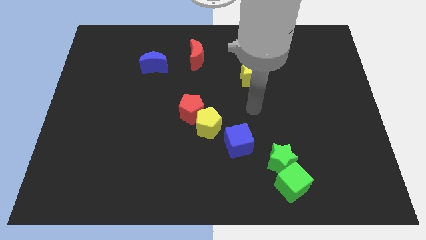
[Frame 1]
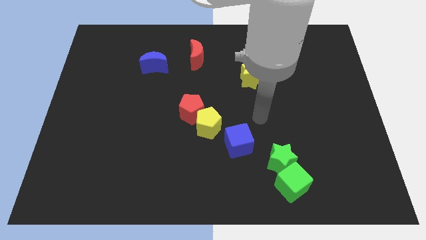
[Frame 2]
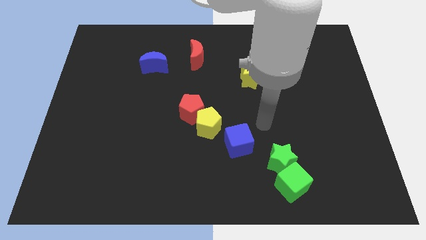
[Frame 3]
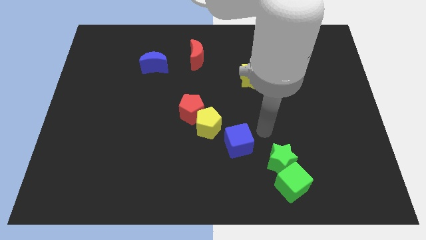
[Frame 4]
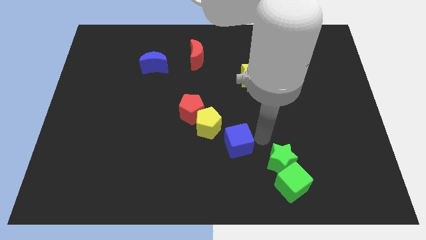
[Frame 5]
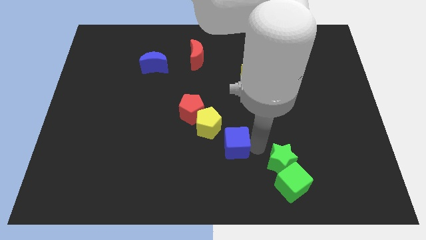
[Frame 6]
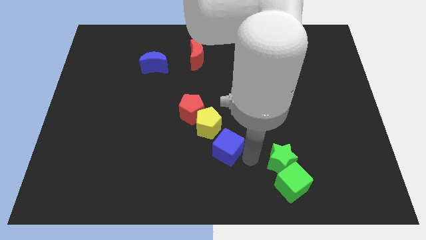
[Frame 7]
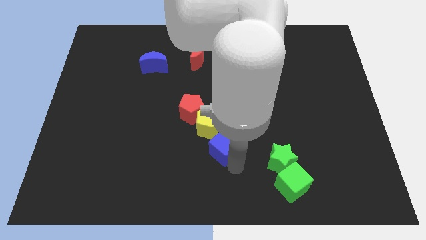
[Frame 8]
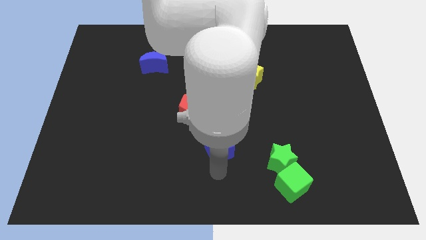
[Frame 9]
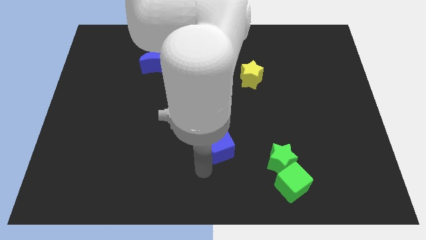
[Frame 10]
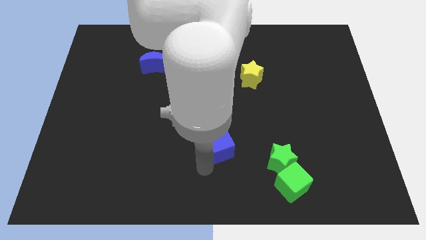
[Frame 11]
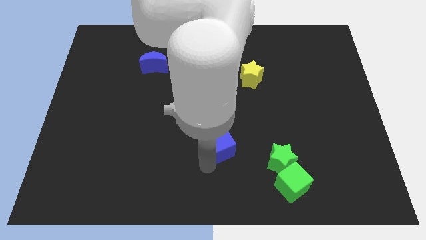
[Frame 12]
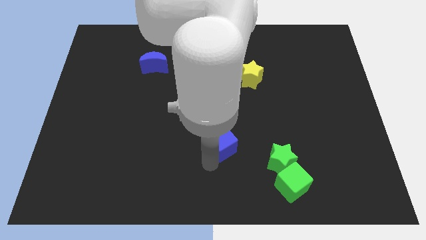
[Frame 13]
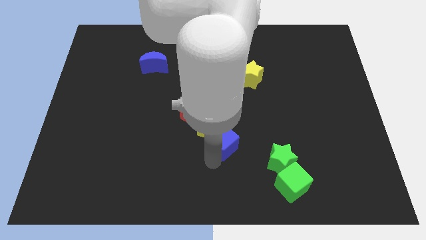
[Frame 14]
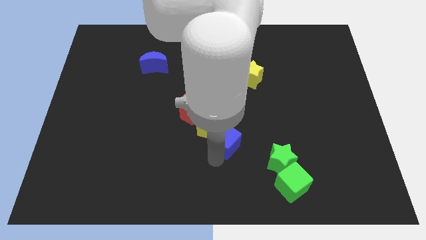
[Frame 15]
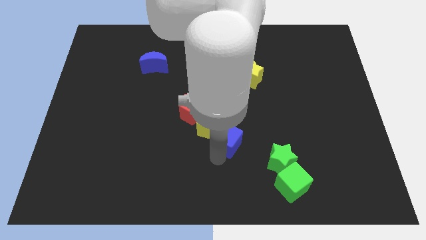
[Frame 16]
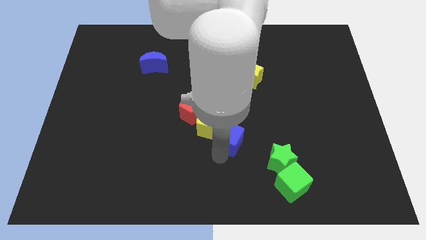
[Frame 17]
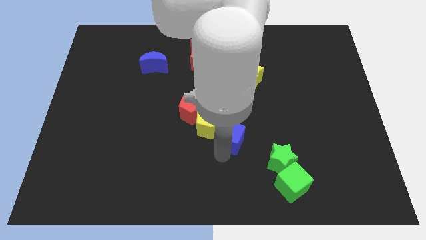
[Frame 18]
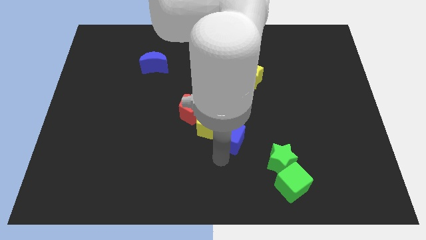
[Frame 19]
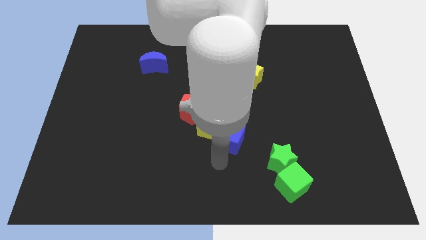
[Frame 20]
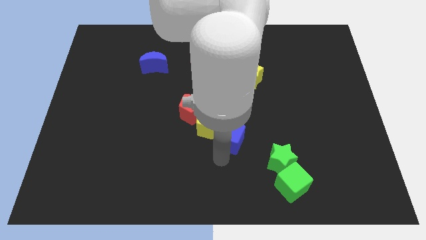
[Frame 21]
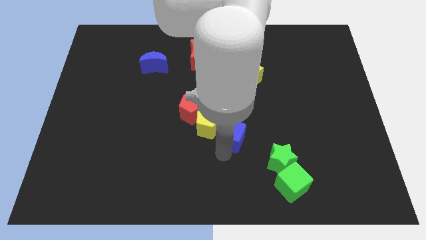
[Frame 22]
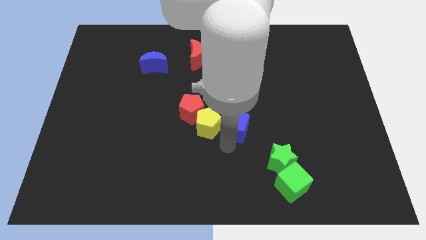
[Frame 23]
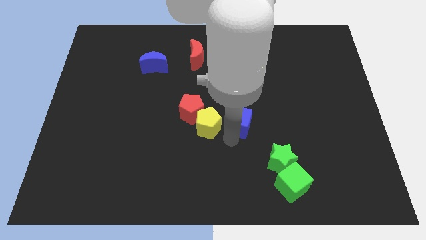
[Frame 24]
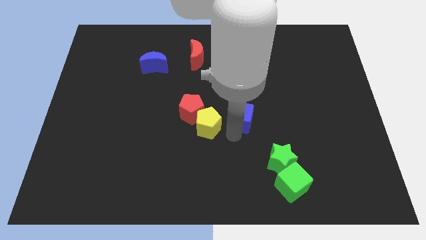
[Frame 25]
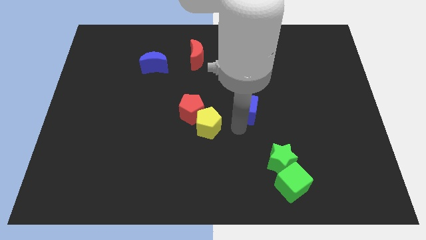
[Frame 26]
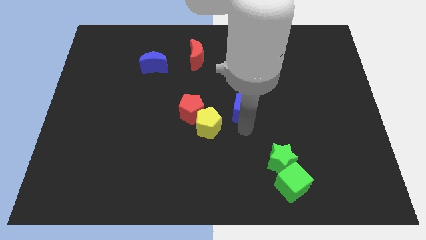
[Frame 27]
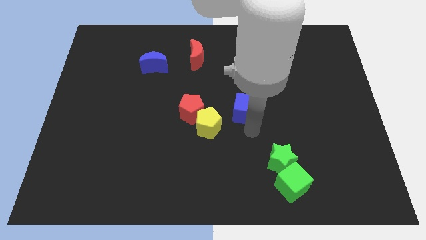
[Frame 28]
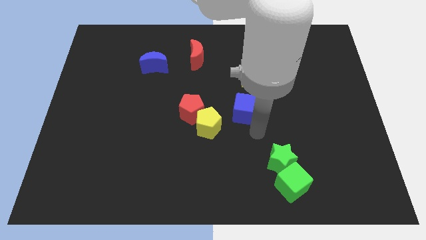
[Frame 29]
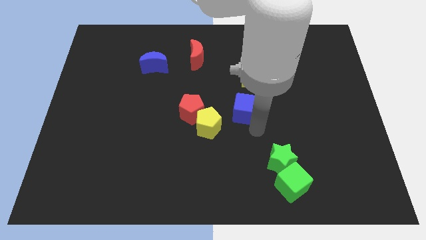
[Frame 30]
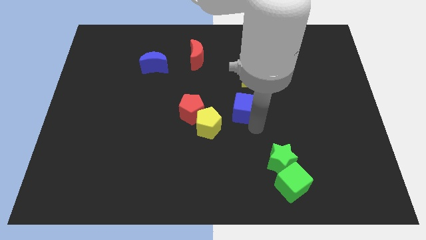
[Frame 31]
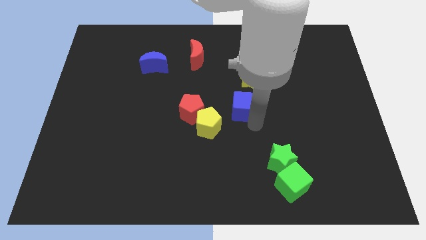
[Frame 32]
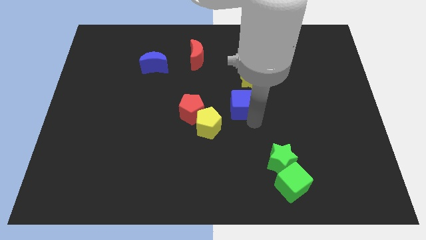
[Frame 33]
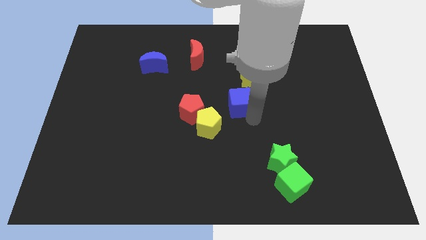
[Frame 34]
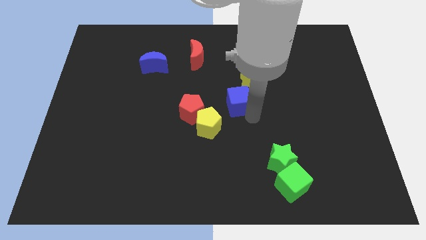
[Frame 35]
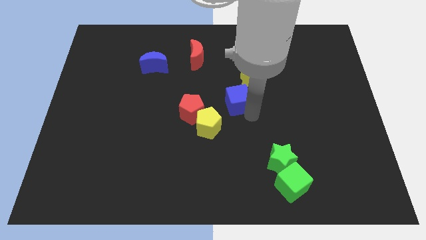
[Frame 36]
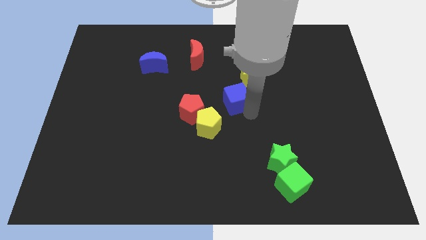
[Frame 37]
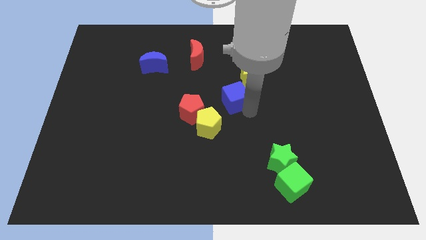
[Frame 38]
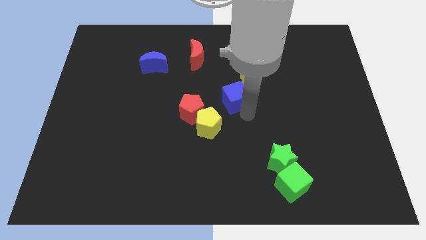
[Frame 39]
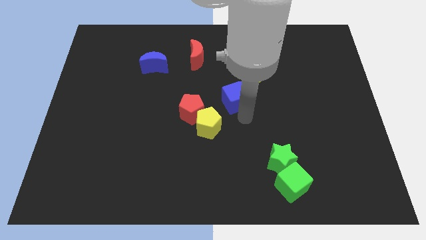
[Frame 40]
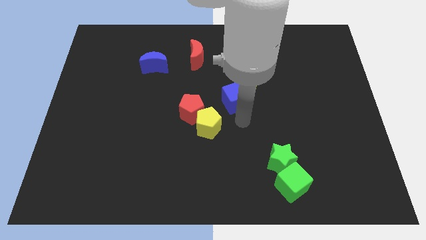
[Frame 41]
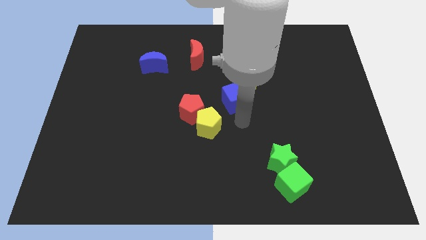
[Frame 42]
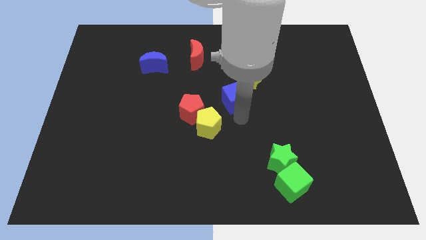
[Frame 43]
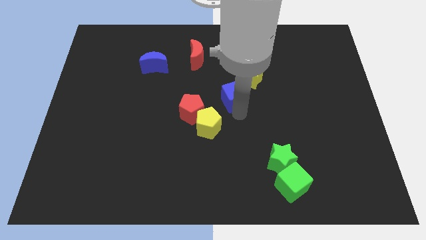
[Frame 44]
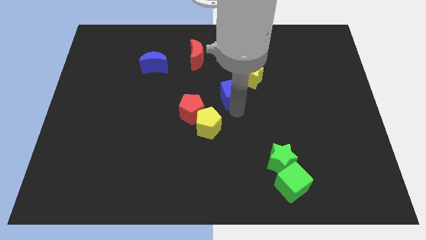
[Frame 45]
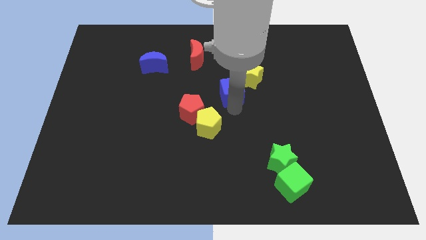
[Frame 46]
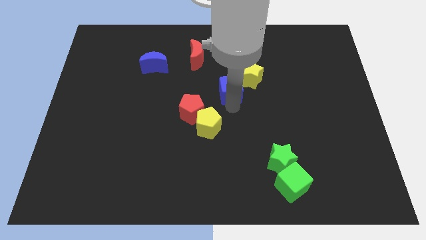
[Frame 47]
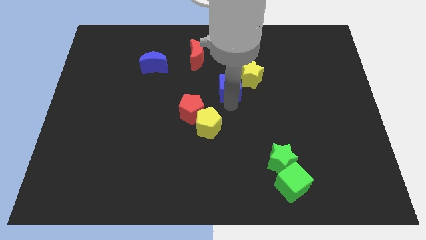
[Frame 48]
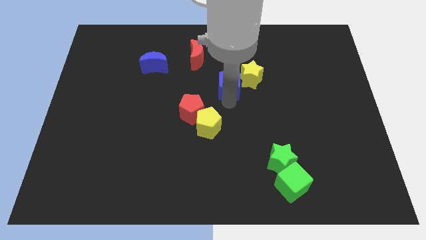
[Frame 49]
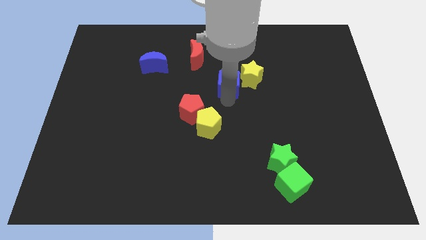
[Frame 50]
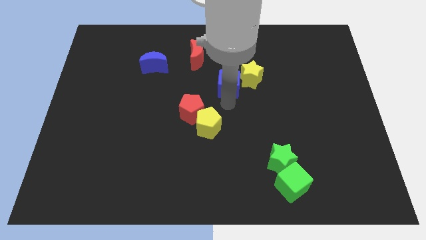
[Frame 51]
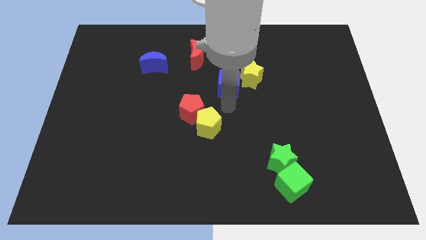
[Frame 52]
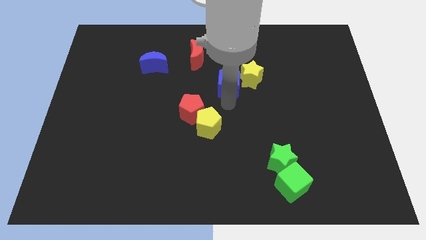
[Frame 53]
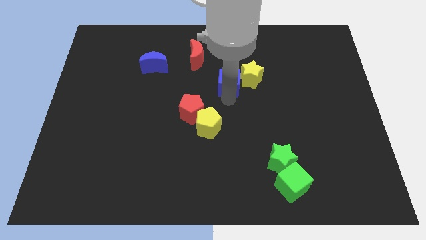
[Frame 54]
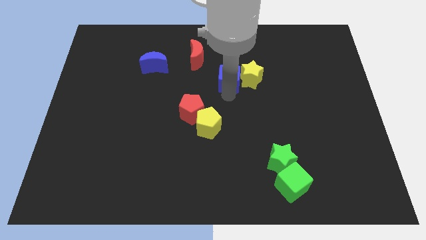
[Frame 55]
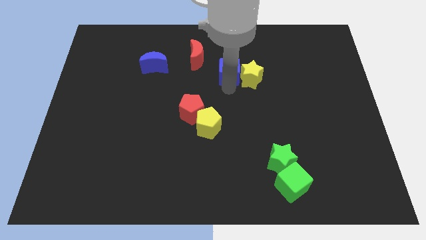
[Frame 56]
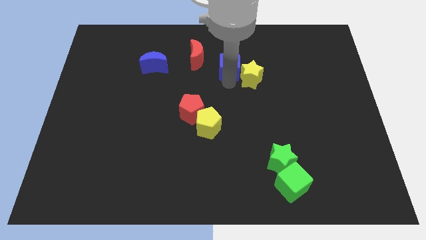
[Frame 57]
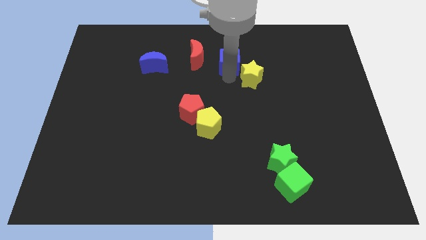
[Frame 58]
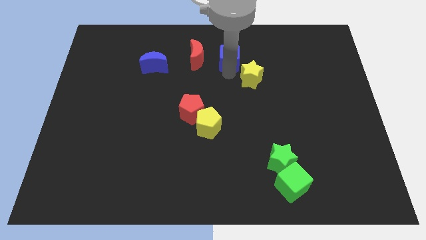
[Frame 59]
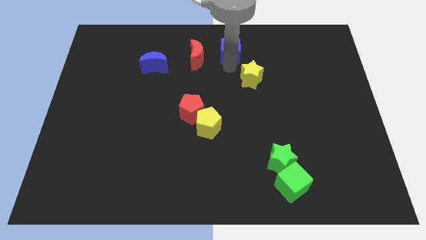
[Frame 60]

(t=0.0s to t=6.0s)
put the blue cube to the towards your base

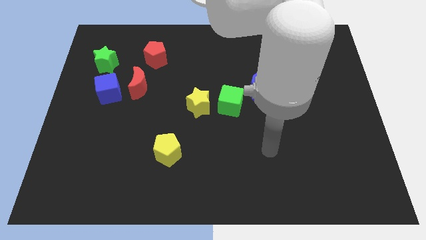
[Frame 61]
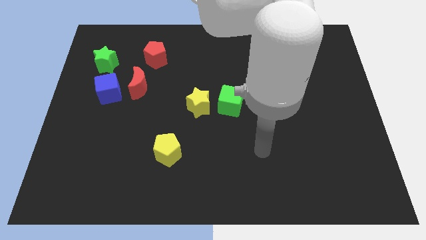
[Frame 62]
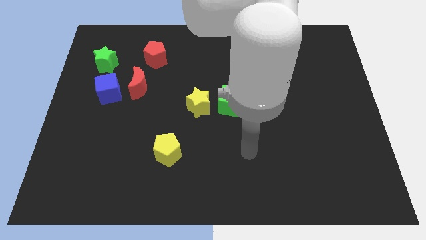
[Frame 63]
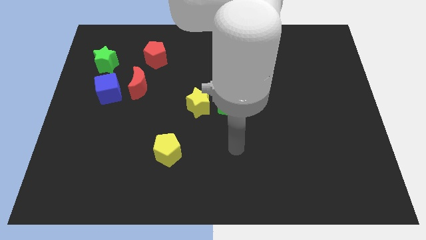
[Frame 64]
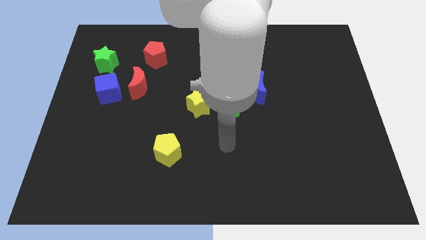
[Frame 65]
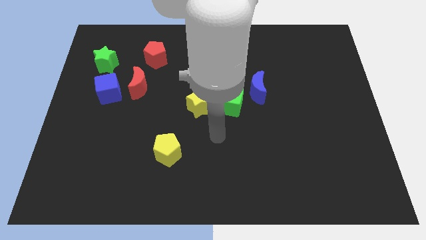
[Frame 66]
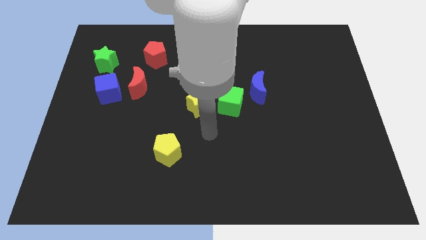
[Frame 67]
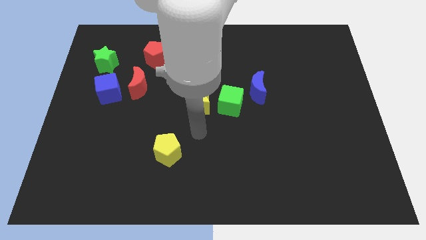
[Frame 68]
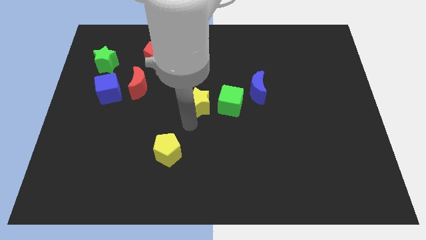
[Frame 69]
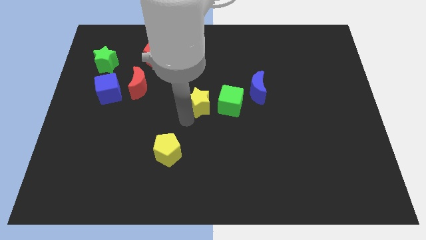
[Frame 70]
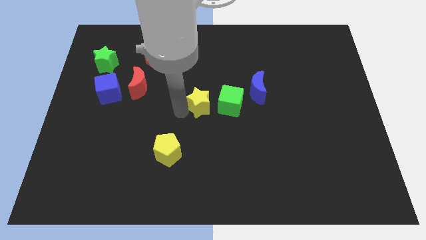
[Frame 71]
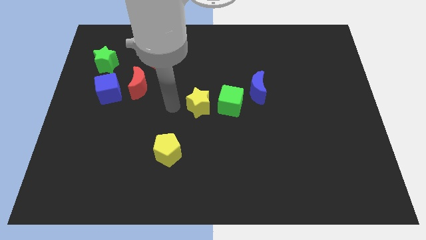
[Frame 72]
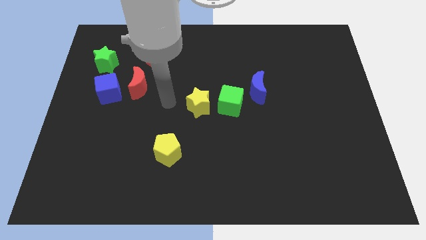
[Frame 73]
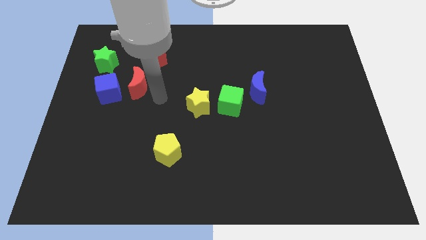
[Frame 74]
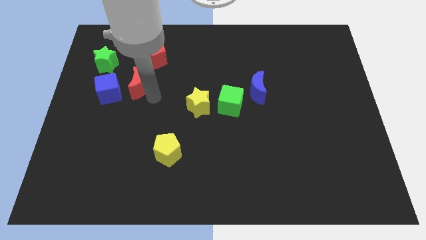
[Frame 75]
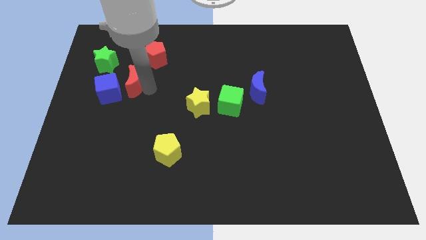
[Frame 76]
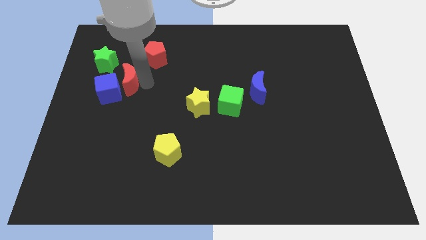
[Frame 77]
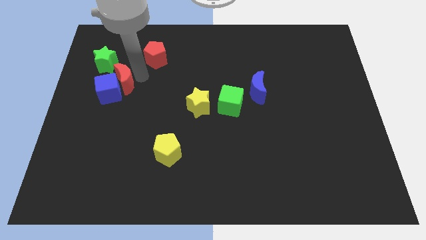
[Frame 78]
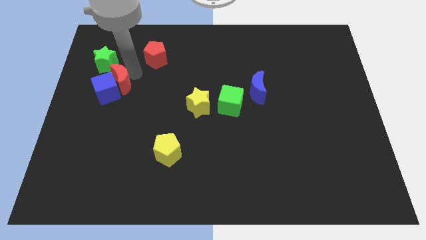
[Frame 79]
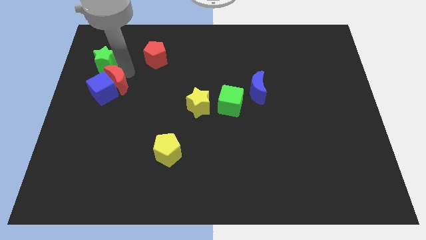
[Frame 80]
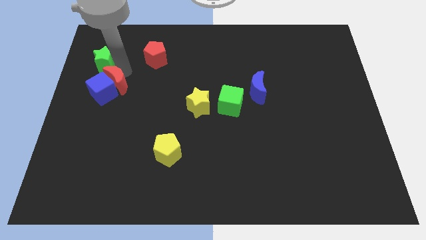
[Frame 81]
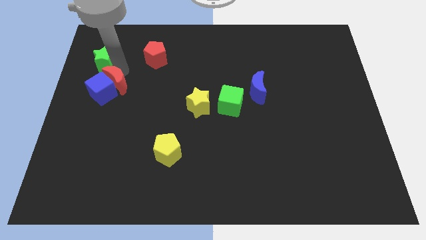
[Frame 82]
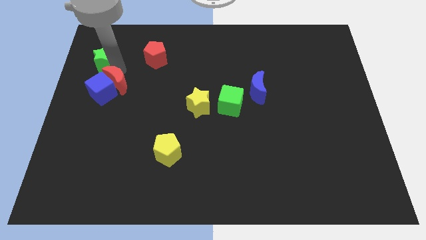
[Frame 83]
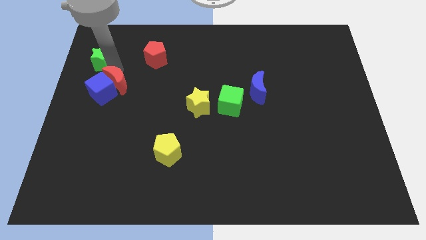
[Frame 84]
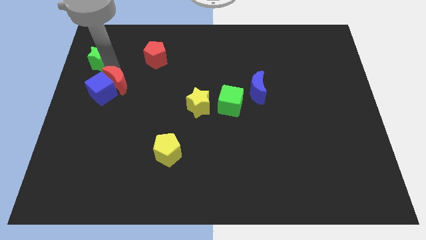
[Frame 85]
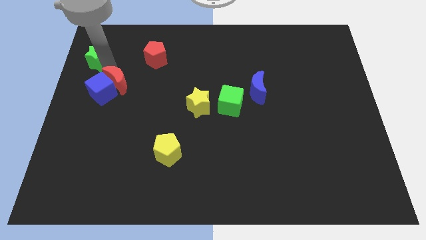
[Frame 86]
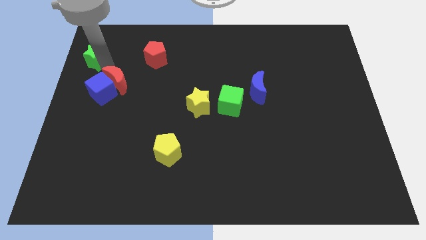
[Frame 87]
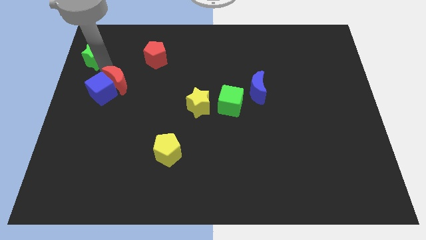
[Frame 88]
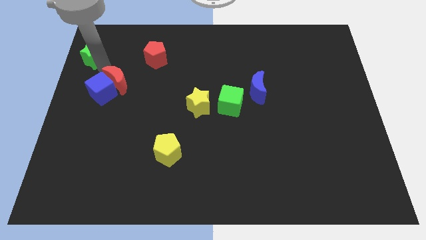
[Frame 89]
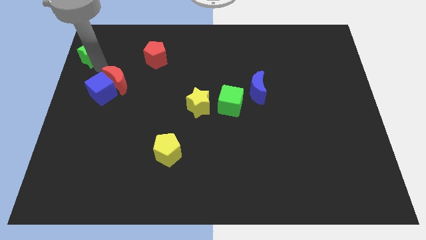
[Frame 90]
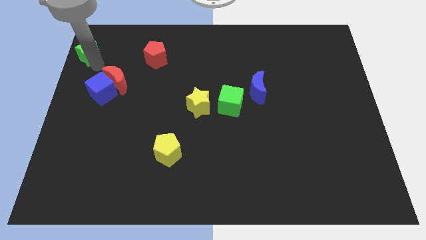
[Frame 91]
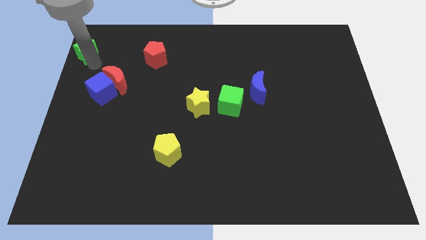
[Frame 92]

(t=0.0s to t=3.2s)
slide the green star to the top left
